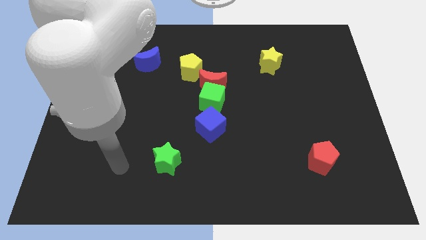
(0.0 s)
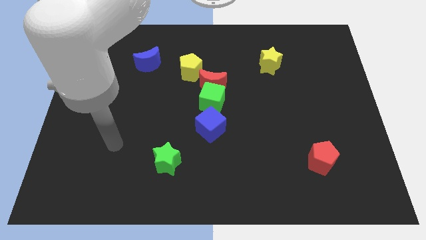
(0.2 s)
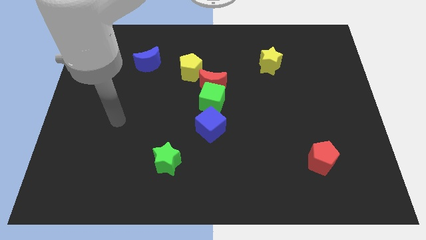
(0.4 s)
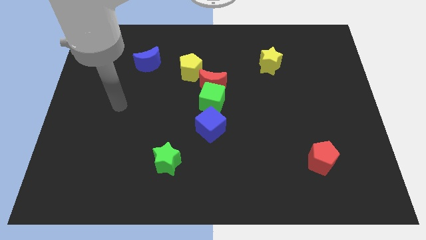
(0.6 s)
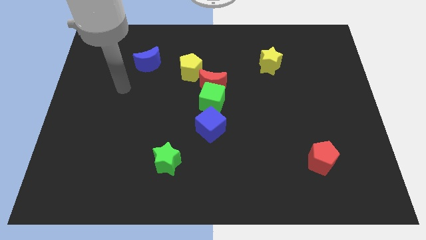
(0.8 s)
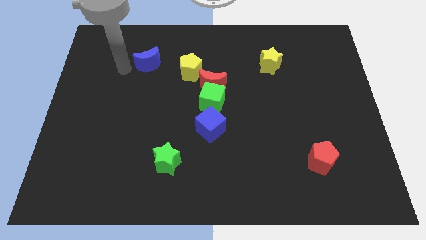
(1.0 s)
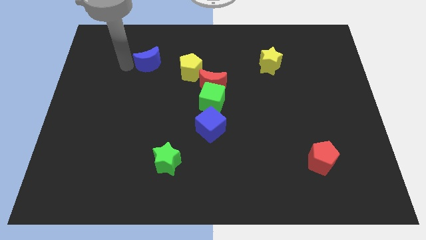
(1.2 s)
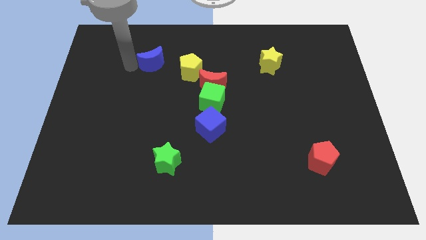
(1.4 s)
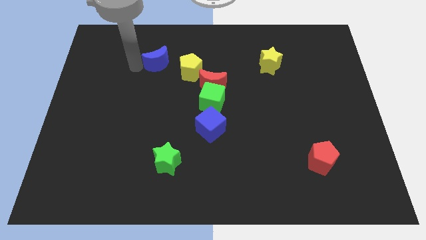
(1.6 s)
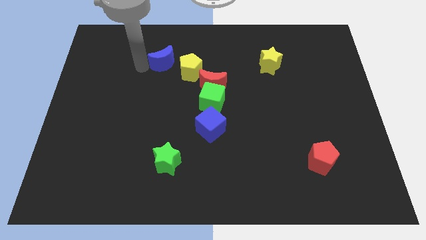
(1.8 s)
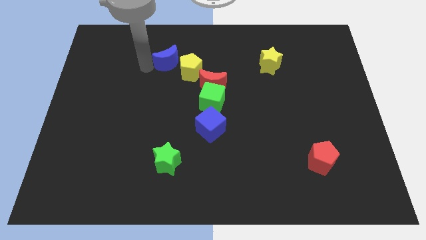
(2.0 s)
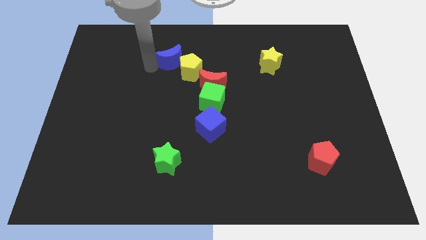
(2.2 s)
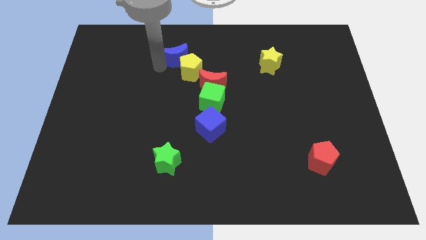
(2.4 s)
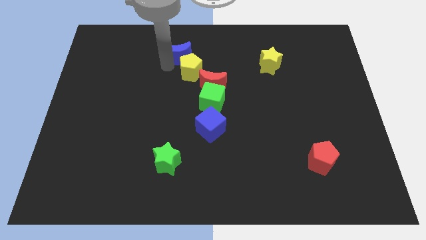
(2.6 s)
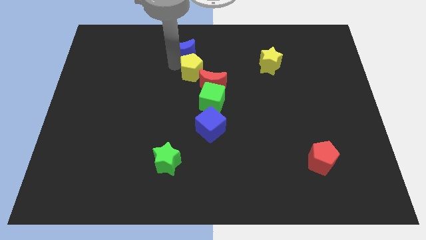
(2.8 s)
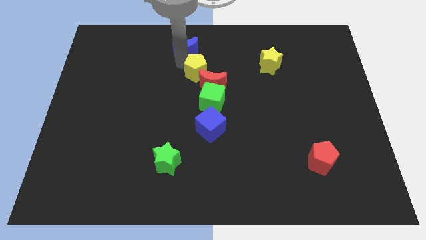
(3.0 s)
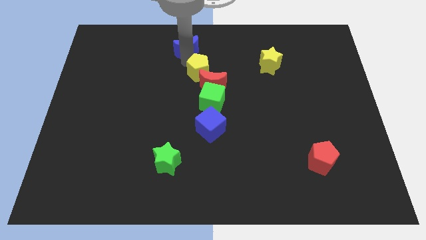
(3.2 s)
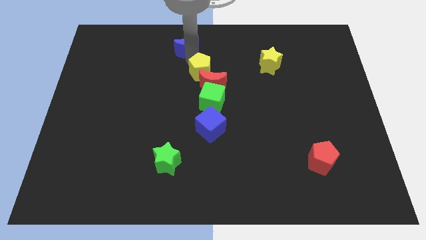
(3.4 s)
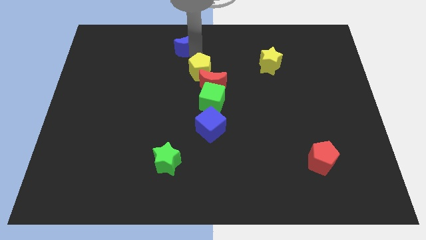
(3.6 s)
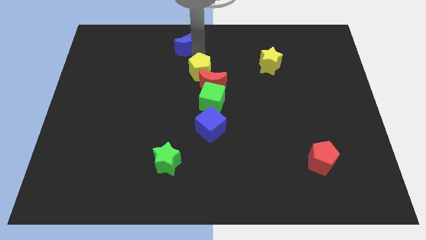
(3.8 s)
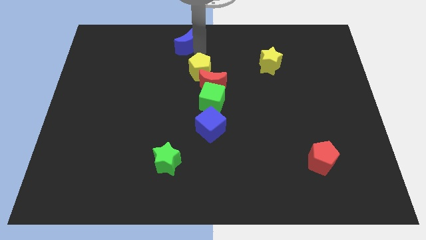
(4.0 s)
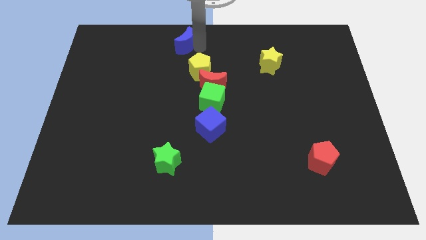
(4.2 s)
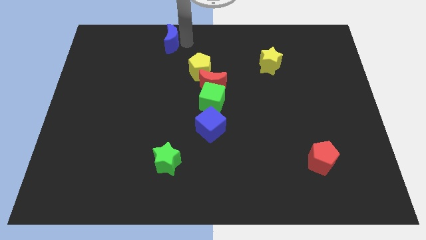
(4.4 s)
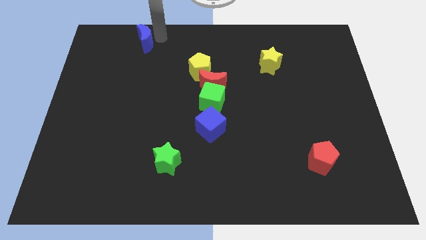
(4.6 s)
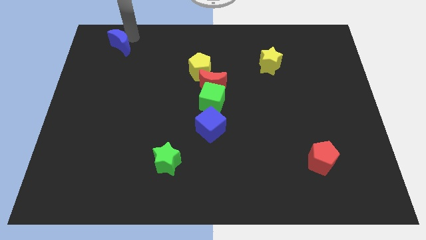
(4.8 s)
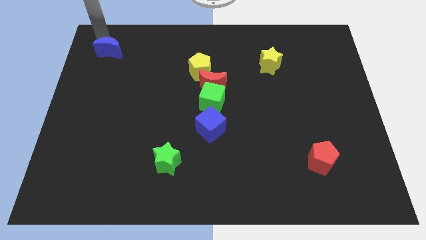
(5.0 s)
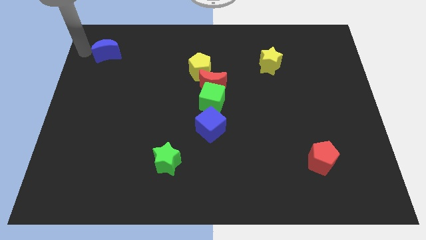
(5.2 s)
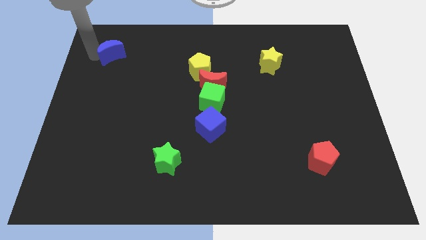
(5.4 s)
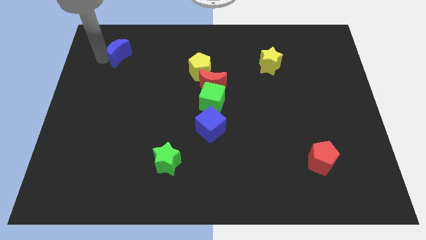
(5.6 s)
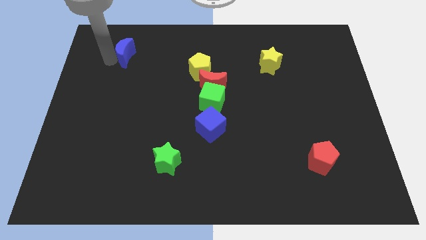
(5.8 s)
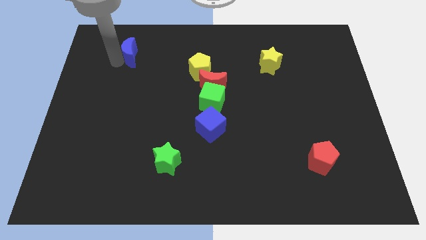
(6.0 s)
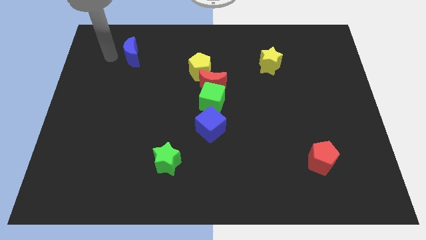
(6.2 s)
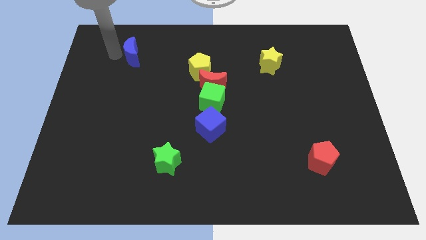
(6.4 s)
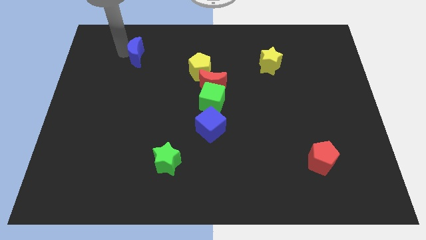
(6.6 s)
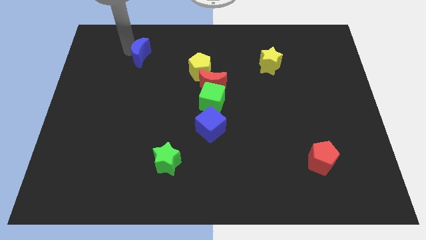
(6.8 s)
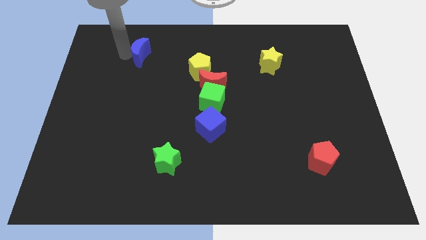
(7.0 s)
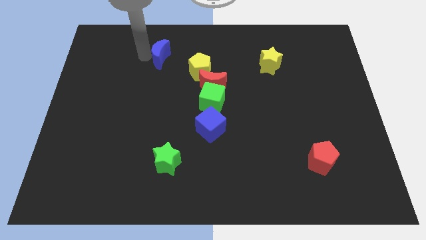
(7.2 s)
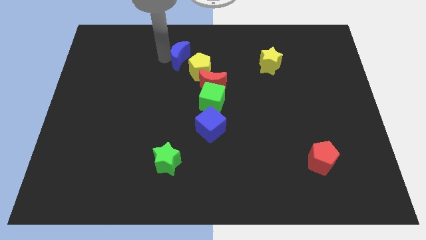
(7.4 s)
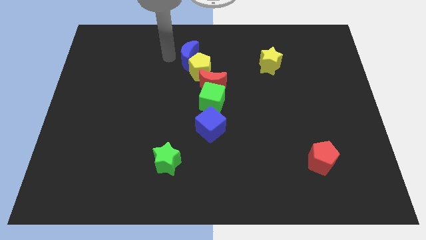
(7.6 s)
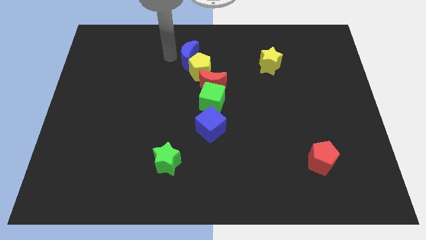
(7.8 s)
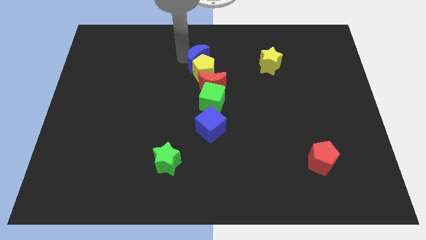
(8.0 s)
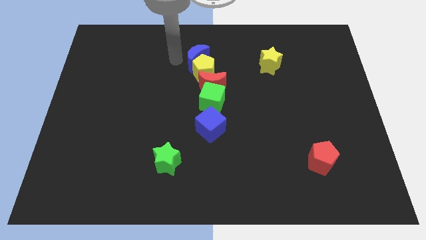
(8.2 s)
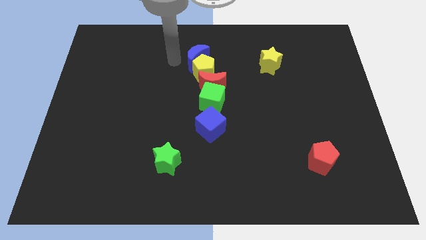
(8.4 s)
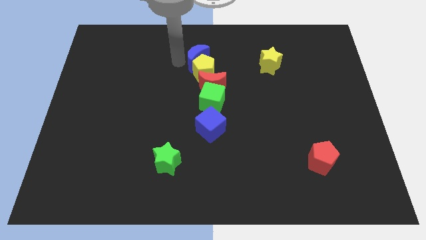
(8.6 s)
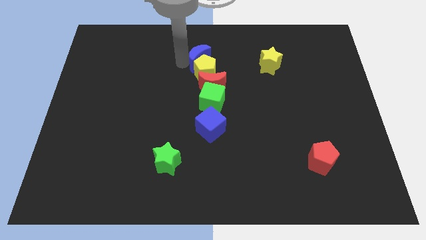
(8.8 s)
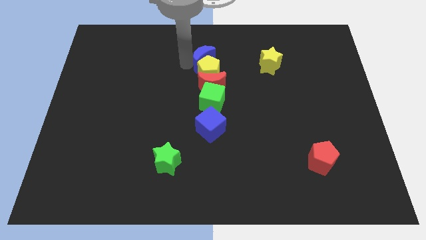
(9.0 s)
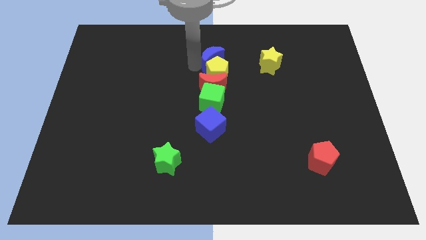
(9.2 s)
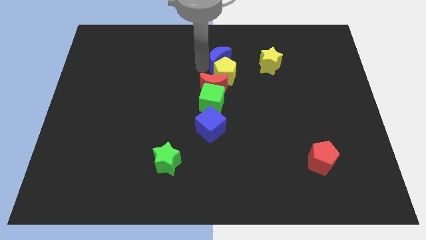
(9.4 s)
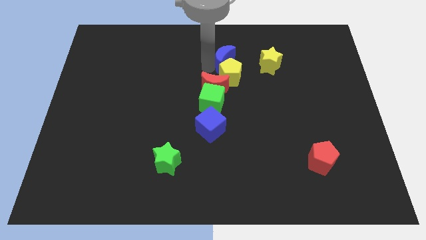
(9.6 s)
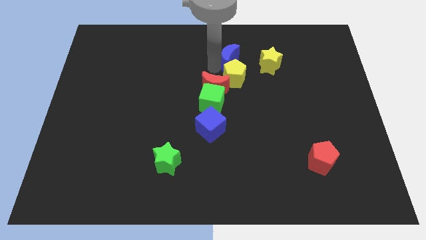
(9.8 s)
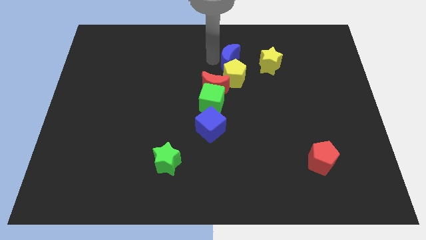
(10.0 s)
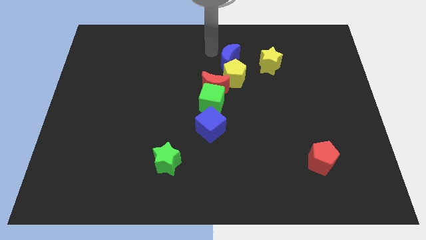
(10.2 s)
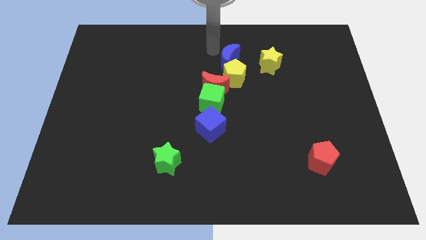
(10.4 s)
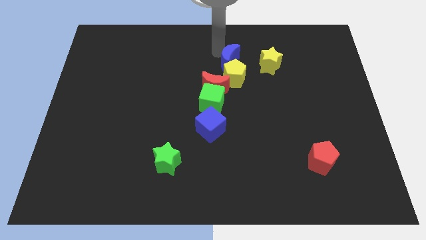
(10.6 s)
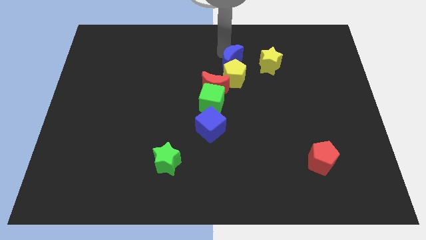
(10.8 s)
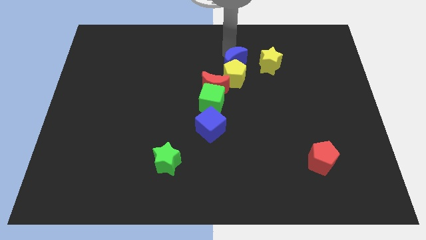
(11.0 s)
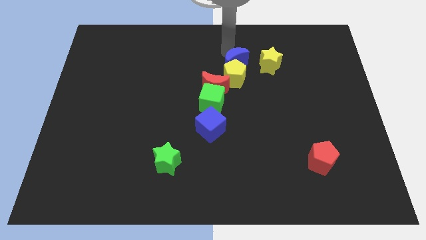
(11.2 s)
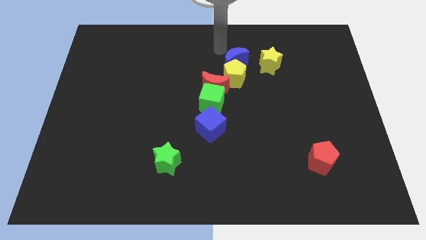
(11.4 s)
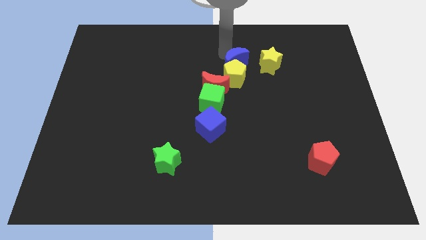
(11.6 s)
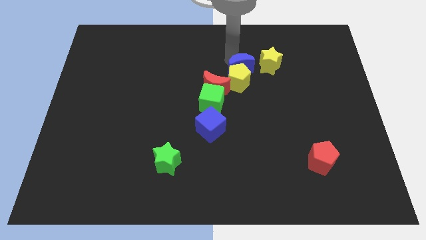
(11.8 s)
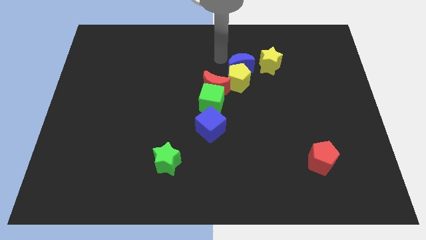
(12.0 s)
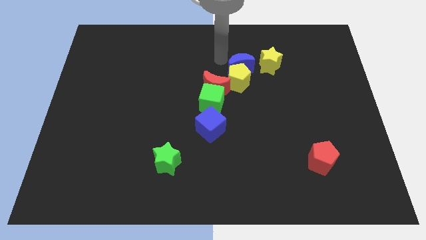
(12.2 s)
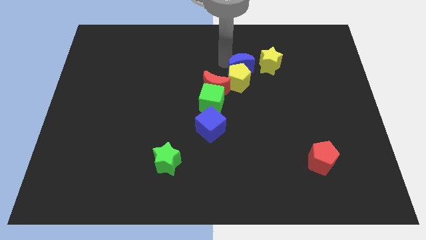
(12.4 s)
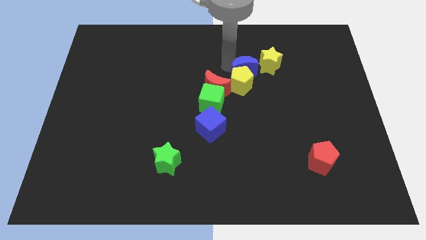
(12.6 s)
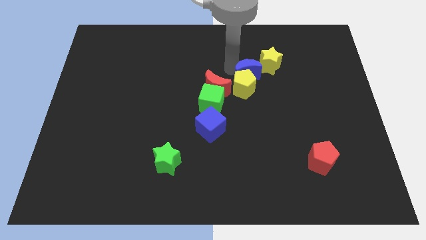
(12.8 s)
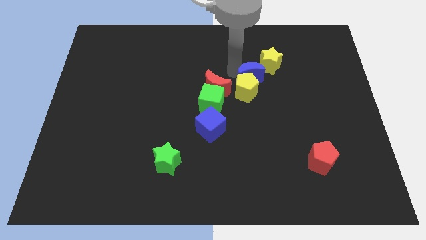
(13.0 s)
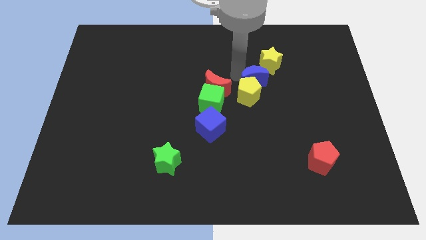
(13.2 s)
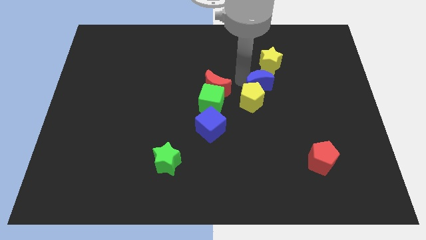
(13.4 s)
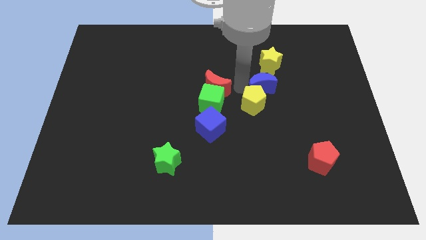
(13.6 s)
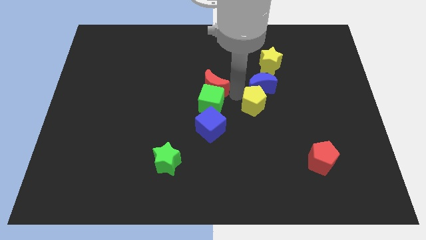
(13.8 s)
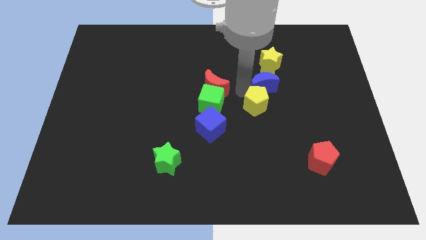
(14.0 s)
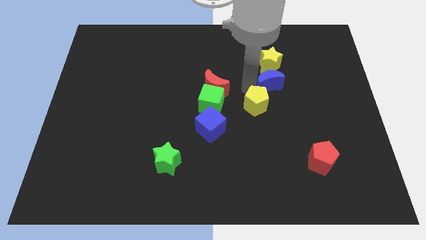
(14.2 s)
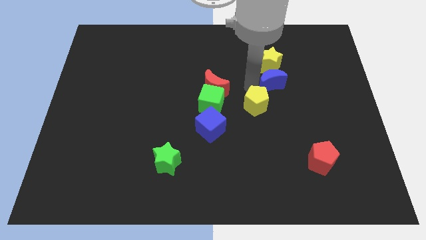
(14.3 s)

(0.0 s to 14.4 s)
move the blue moon diagonally down and to the right of the yellow star

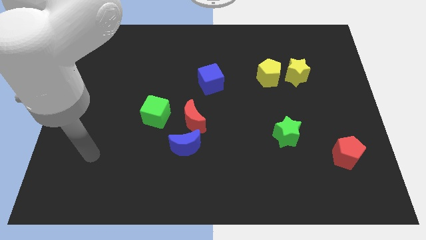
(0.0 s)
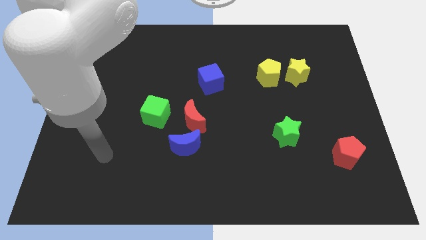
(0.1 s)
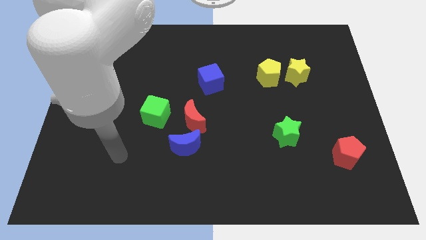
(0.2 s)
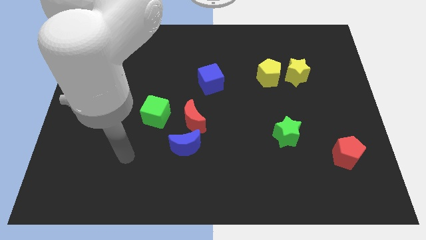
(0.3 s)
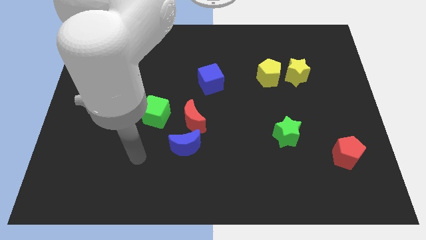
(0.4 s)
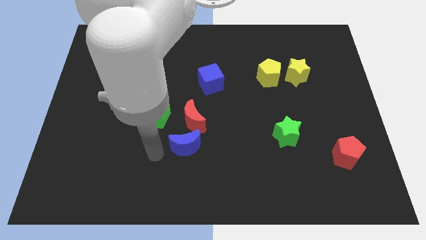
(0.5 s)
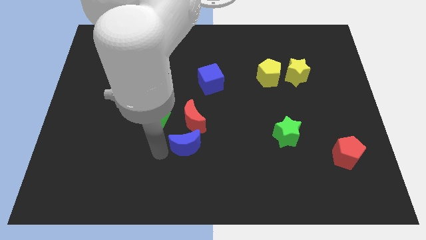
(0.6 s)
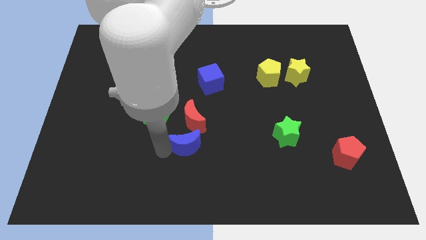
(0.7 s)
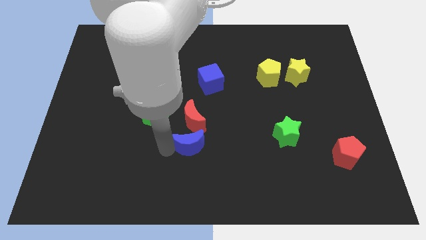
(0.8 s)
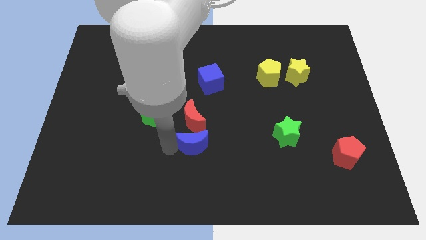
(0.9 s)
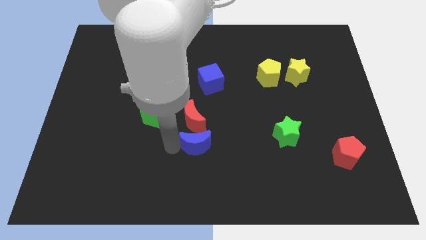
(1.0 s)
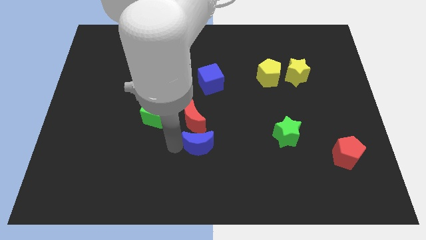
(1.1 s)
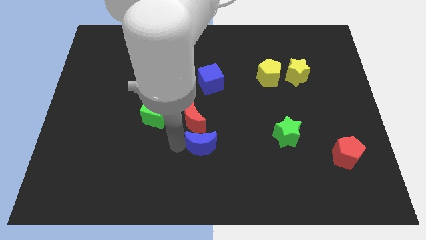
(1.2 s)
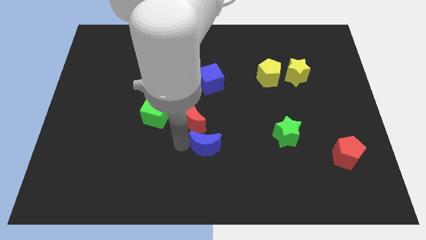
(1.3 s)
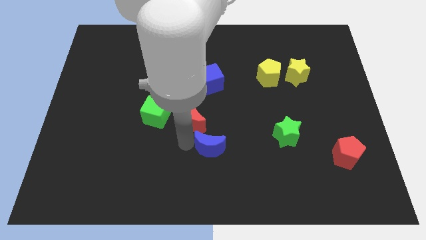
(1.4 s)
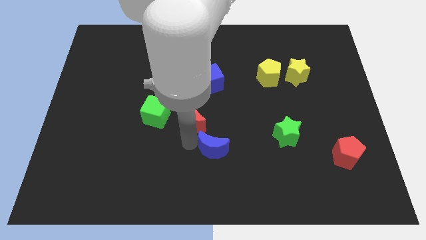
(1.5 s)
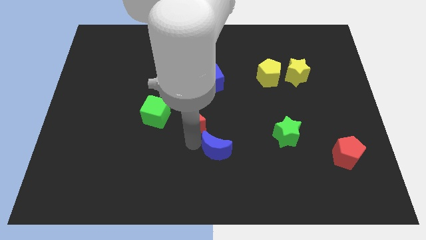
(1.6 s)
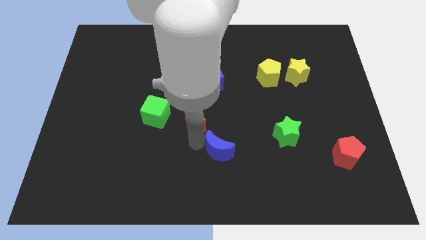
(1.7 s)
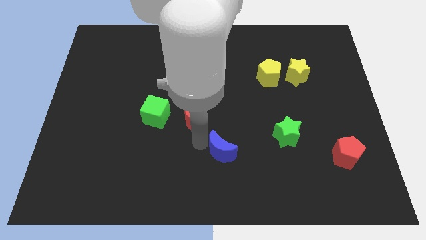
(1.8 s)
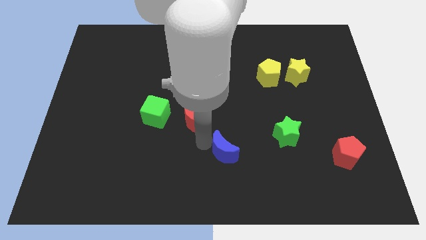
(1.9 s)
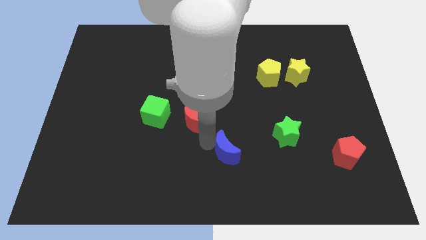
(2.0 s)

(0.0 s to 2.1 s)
put the blue moon just left of the green star
